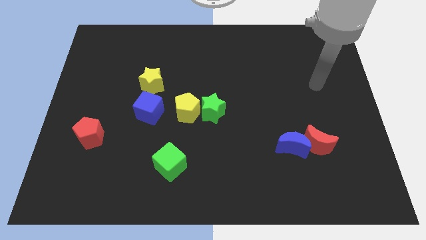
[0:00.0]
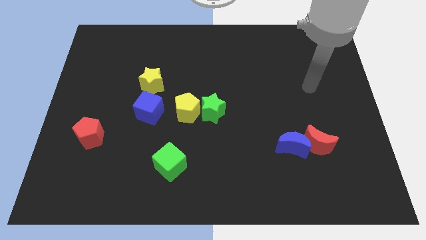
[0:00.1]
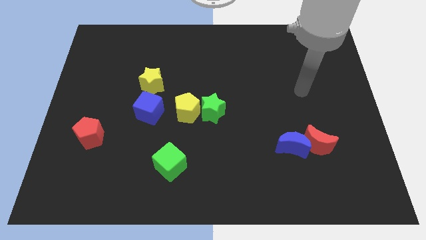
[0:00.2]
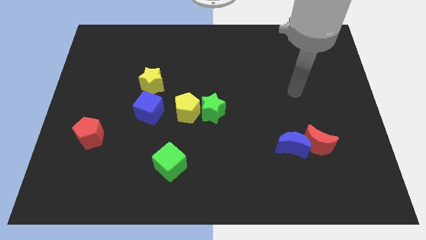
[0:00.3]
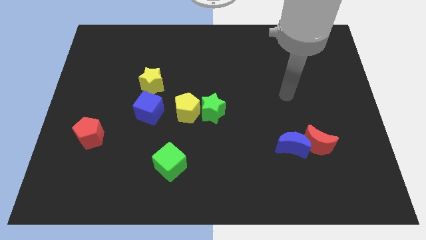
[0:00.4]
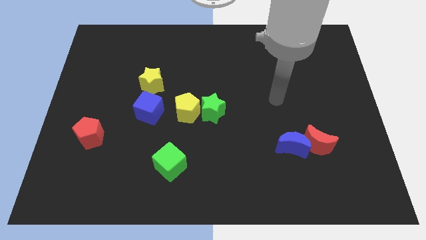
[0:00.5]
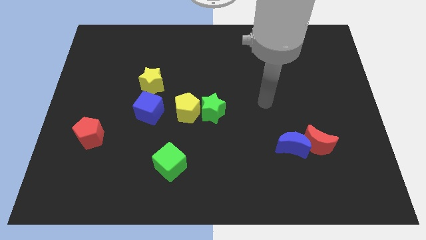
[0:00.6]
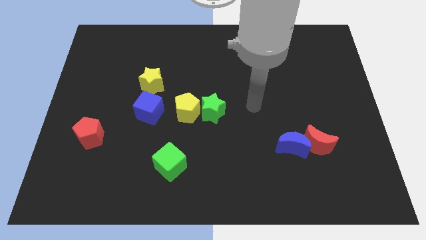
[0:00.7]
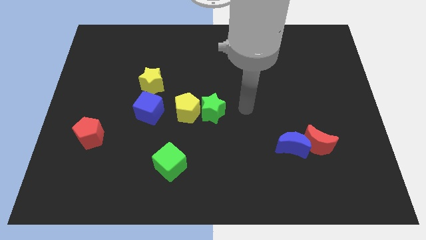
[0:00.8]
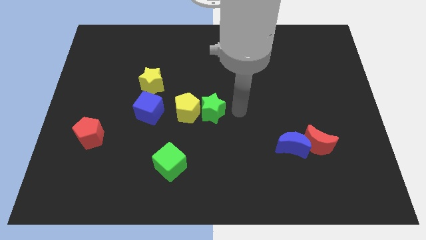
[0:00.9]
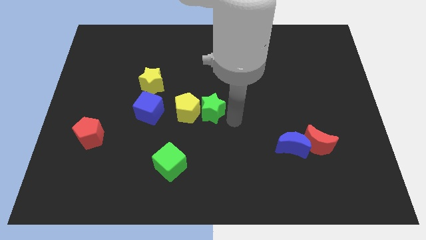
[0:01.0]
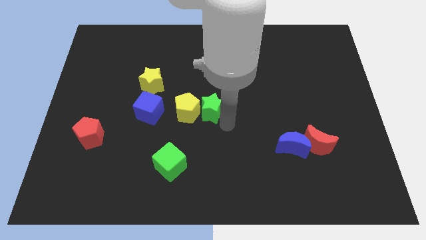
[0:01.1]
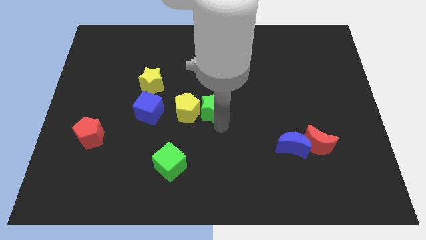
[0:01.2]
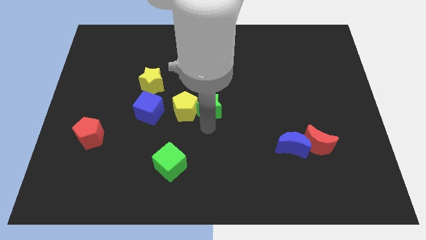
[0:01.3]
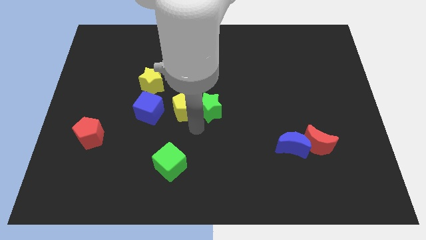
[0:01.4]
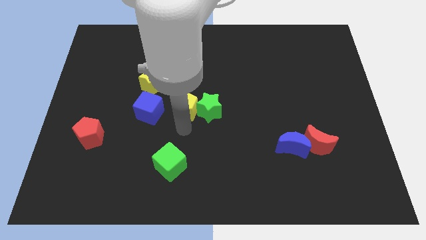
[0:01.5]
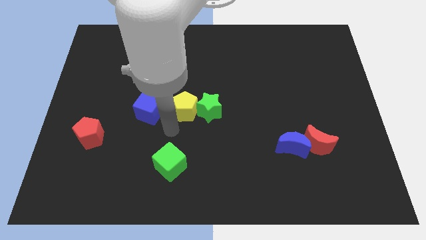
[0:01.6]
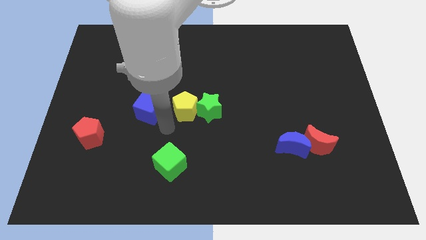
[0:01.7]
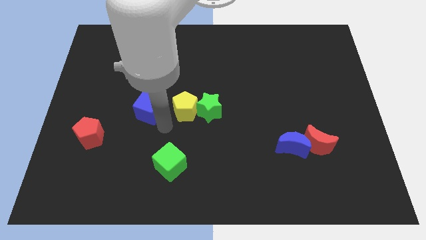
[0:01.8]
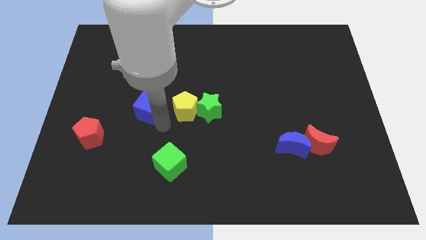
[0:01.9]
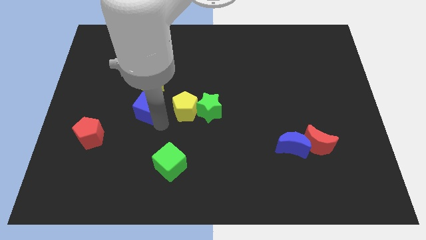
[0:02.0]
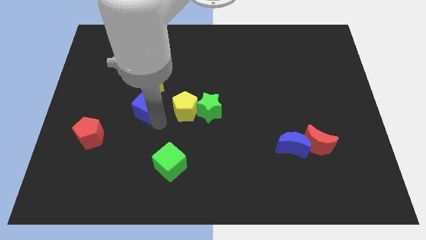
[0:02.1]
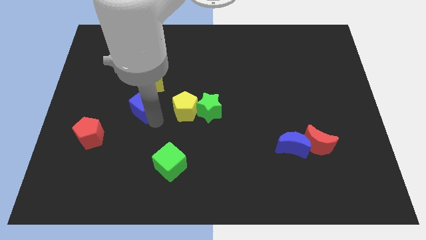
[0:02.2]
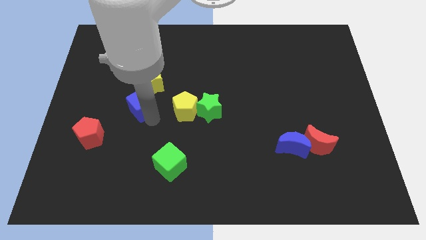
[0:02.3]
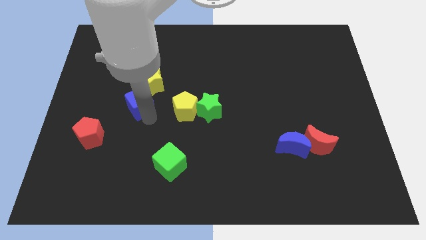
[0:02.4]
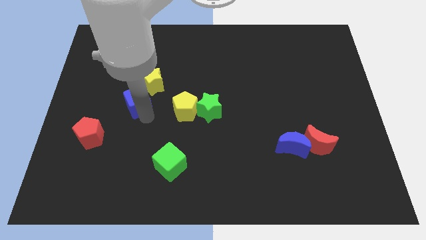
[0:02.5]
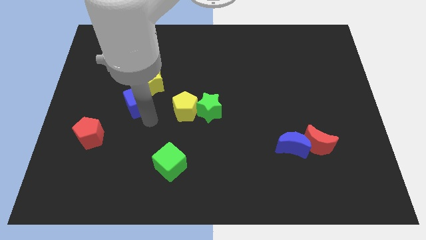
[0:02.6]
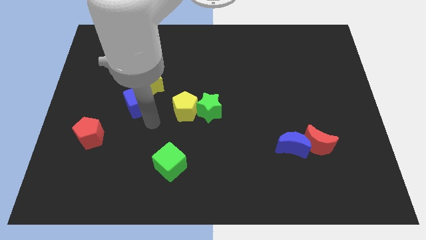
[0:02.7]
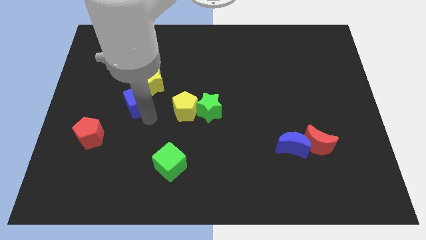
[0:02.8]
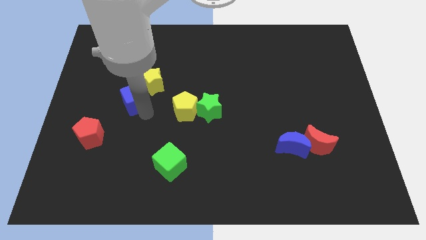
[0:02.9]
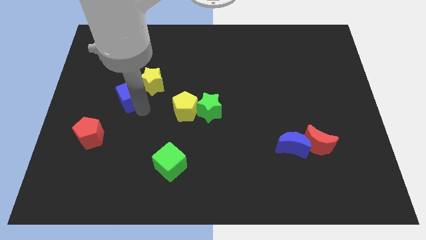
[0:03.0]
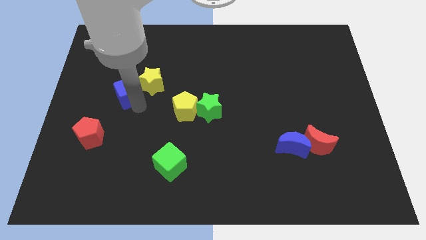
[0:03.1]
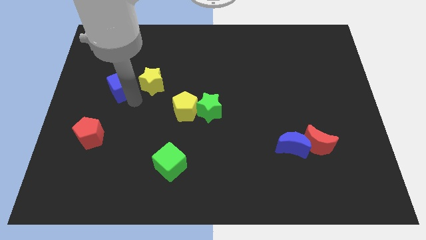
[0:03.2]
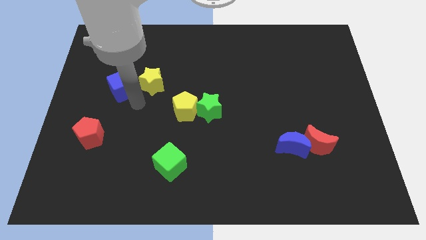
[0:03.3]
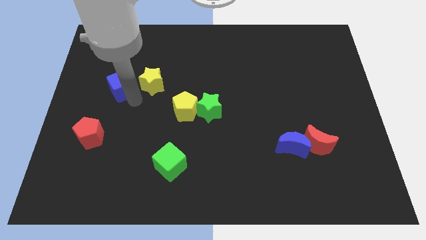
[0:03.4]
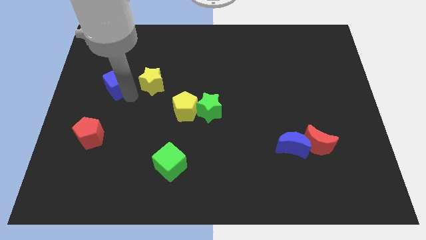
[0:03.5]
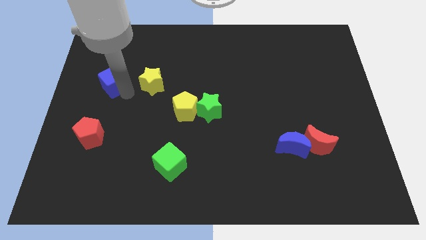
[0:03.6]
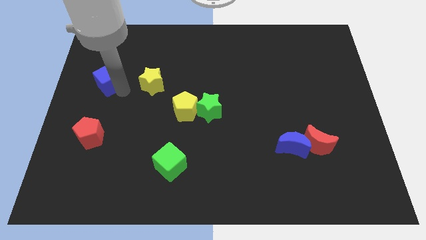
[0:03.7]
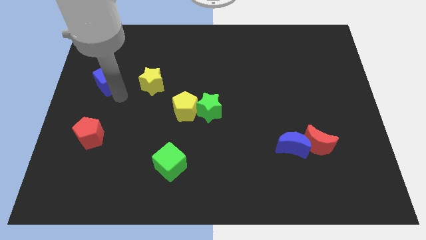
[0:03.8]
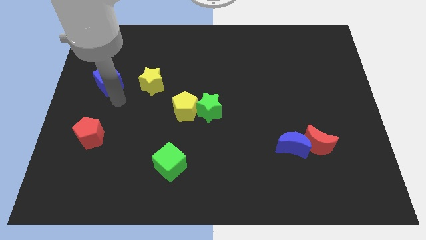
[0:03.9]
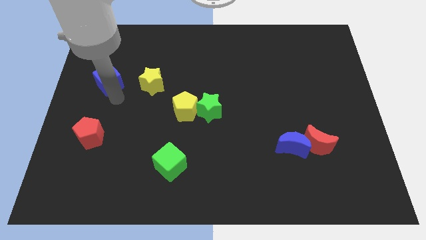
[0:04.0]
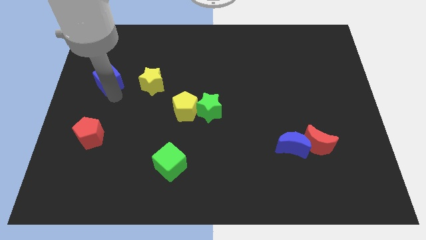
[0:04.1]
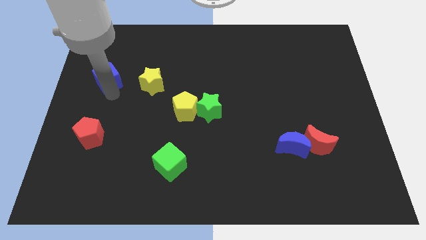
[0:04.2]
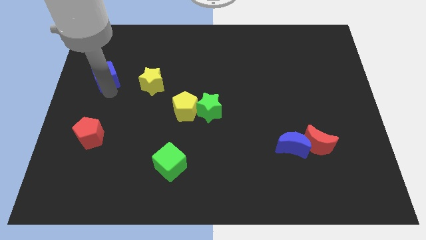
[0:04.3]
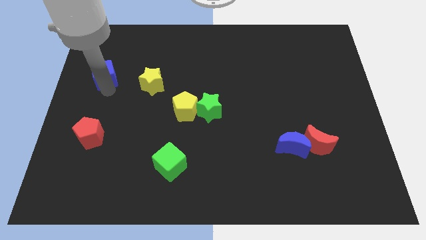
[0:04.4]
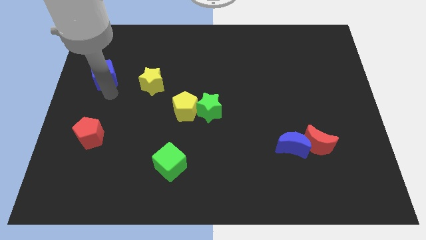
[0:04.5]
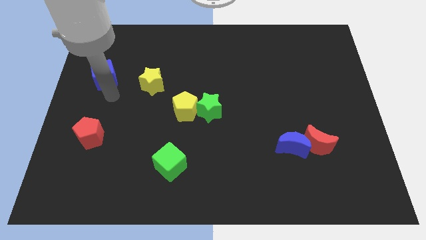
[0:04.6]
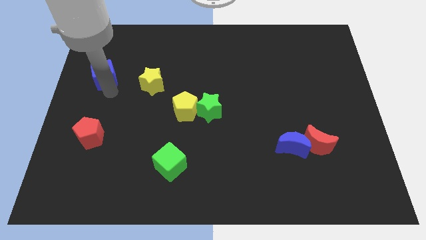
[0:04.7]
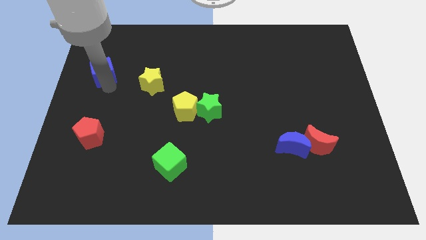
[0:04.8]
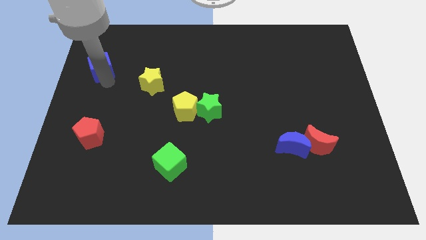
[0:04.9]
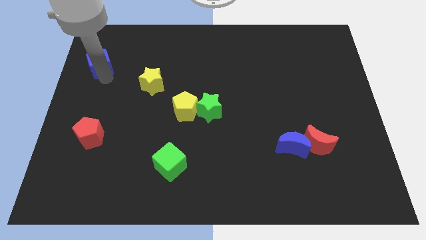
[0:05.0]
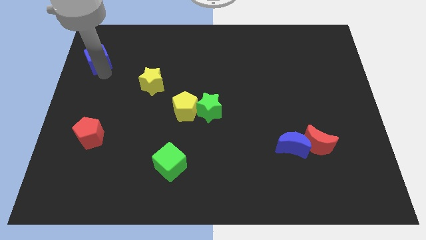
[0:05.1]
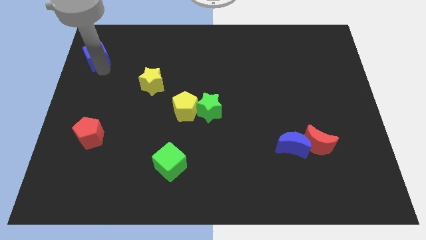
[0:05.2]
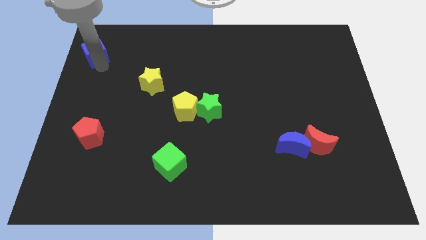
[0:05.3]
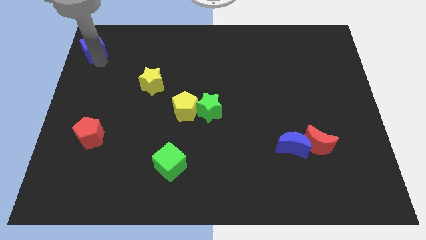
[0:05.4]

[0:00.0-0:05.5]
put the blue cube to the top left

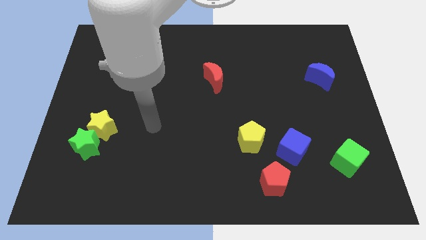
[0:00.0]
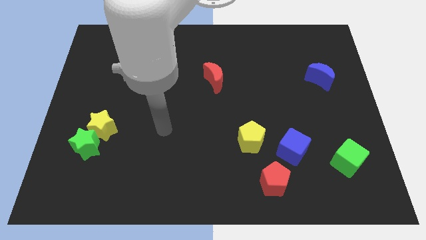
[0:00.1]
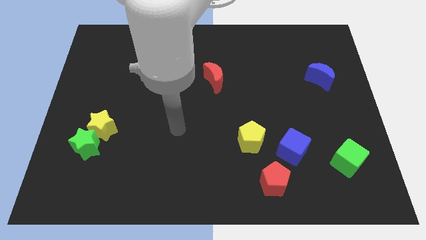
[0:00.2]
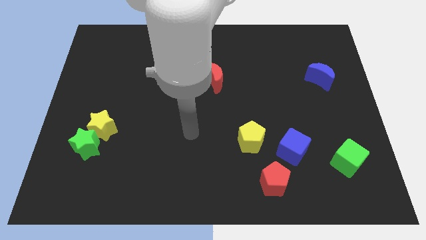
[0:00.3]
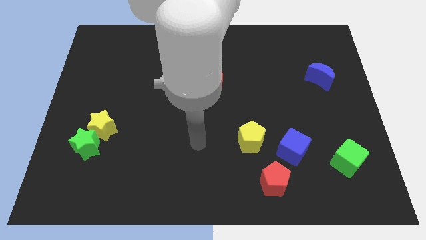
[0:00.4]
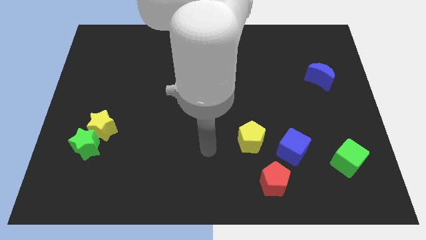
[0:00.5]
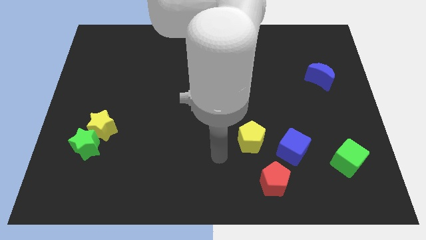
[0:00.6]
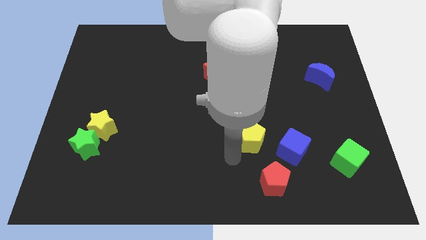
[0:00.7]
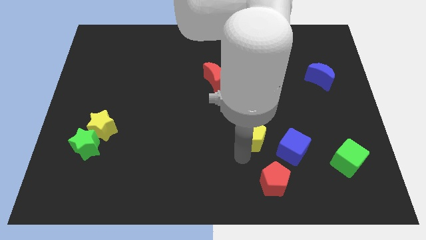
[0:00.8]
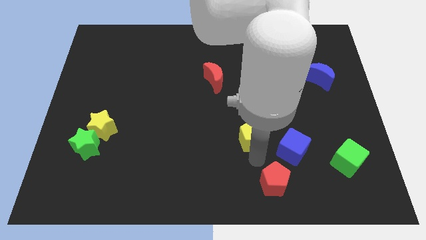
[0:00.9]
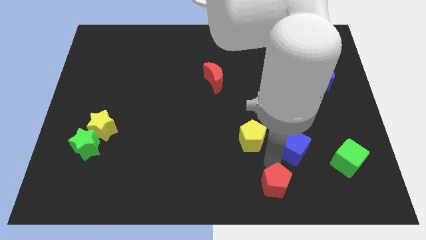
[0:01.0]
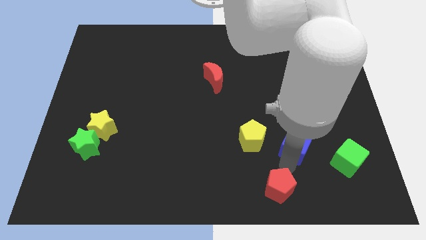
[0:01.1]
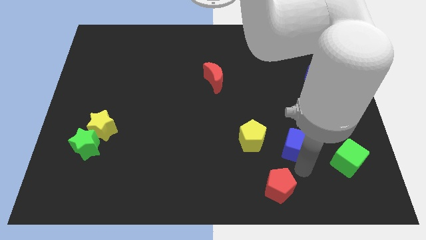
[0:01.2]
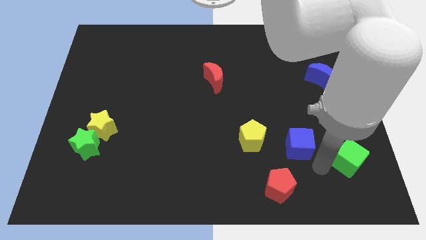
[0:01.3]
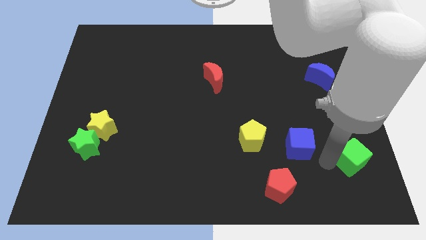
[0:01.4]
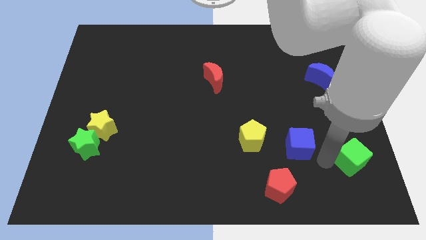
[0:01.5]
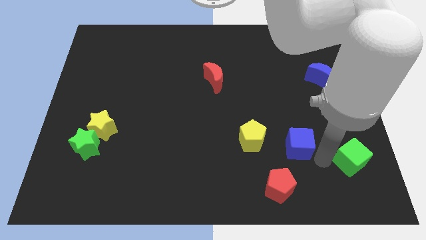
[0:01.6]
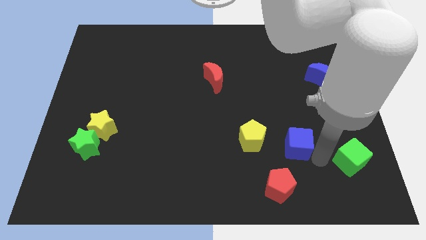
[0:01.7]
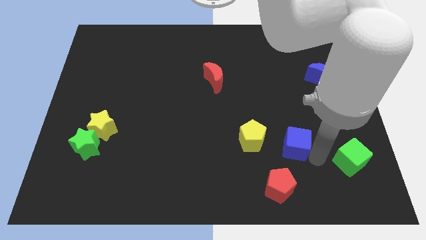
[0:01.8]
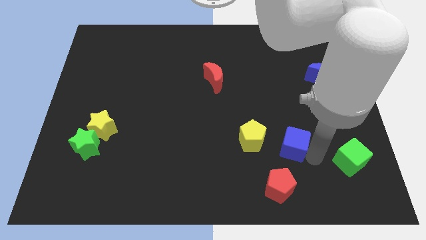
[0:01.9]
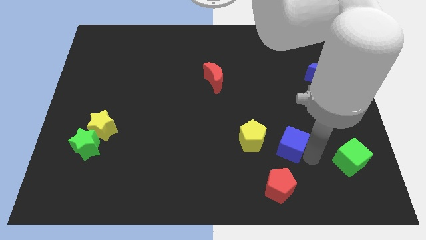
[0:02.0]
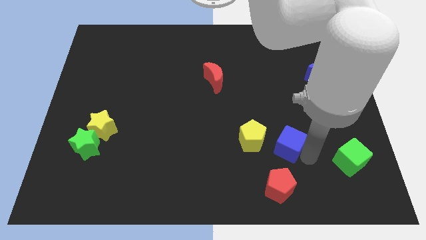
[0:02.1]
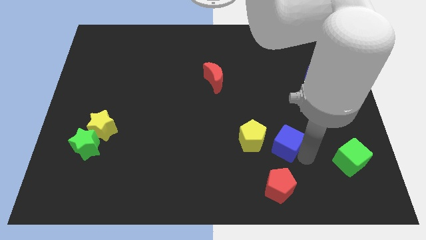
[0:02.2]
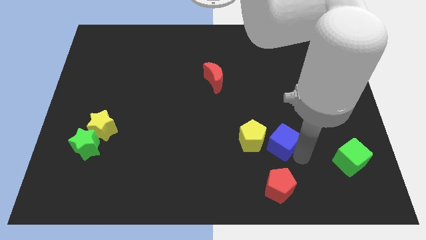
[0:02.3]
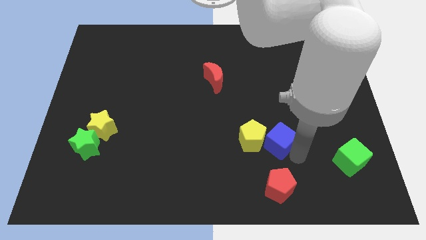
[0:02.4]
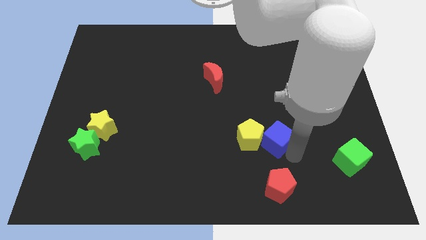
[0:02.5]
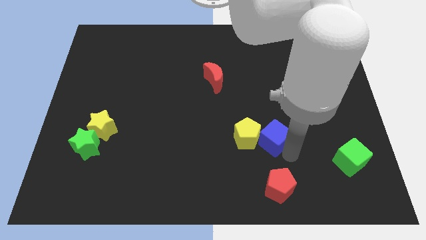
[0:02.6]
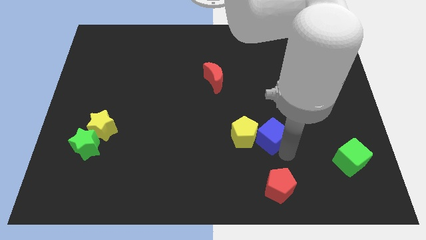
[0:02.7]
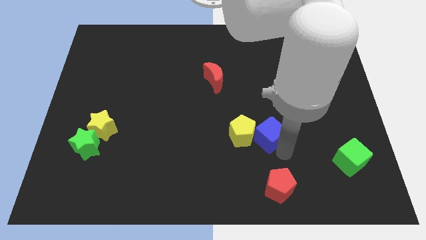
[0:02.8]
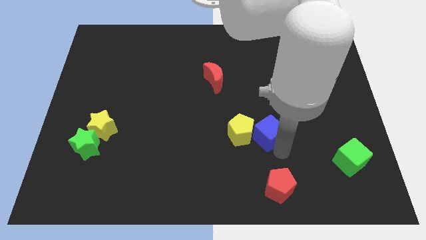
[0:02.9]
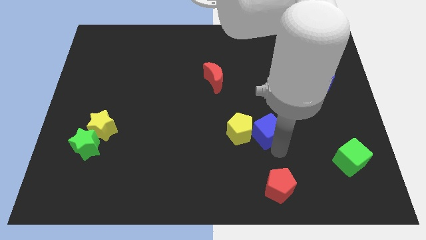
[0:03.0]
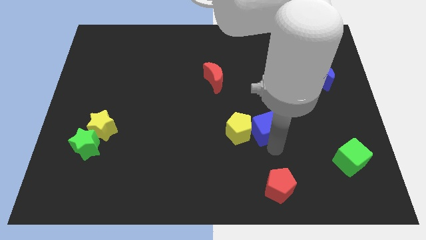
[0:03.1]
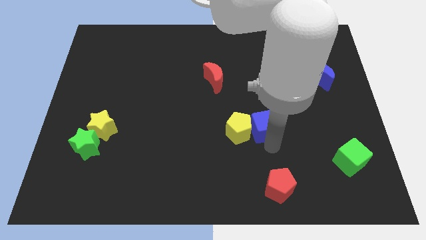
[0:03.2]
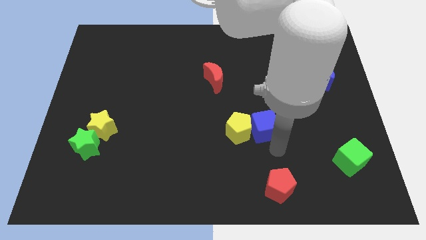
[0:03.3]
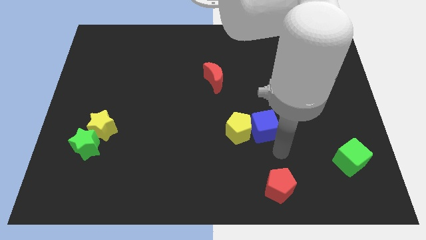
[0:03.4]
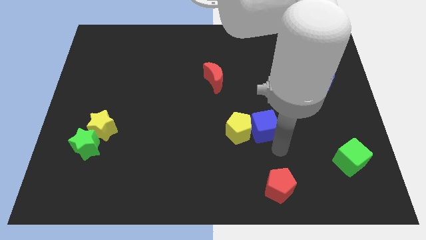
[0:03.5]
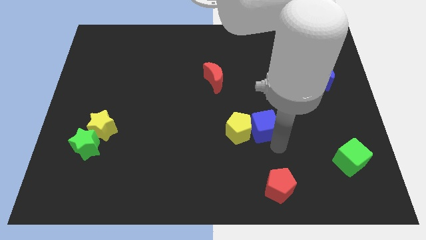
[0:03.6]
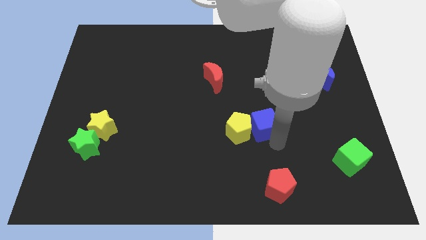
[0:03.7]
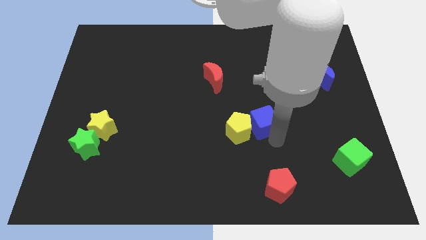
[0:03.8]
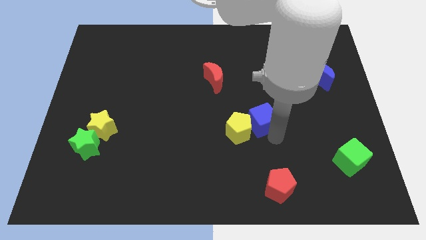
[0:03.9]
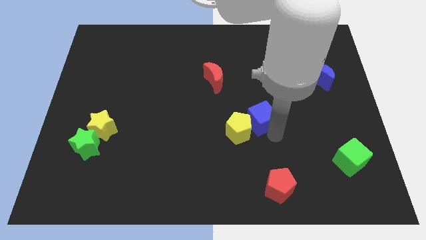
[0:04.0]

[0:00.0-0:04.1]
put the blue cube to the middle of the board
